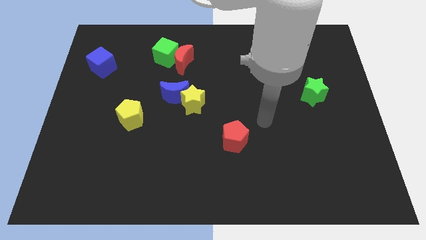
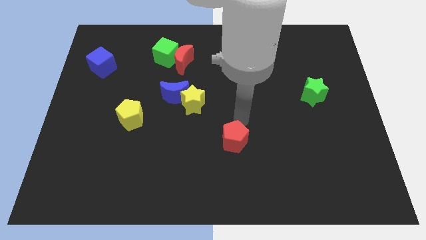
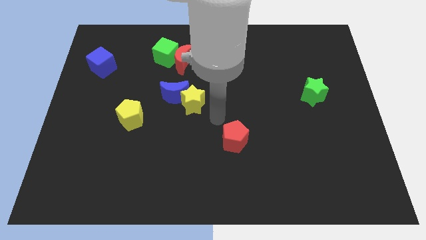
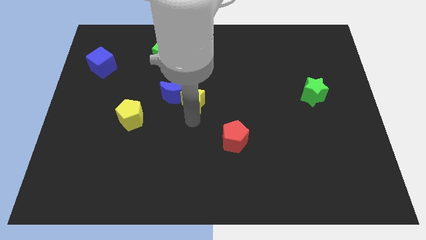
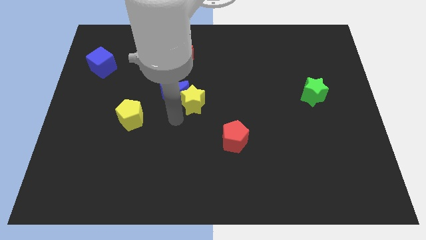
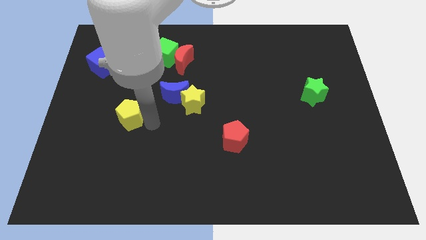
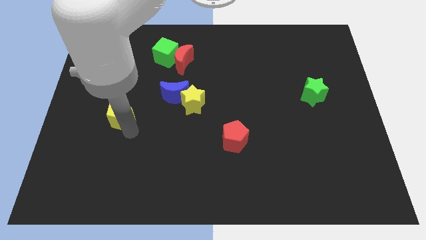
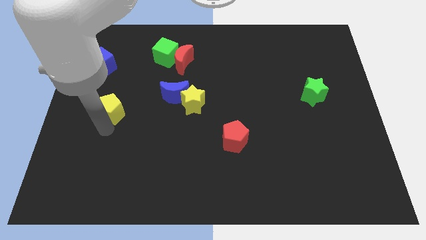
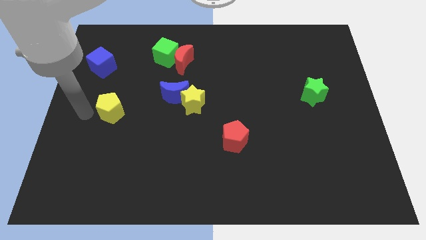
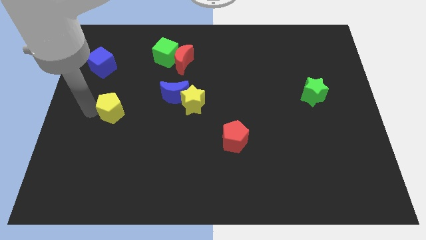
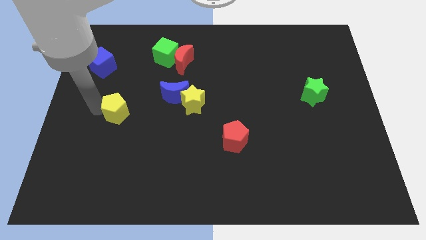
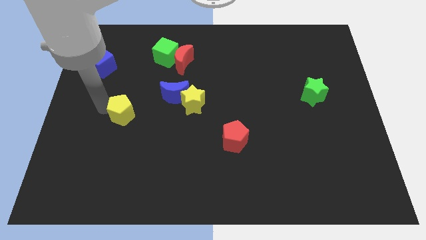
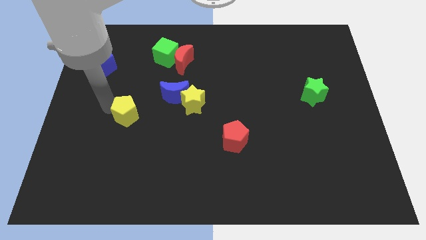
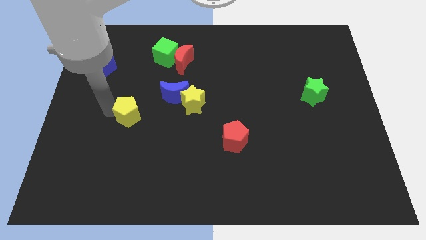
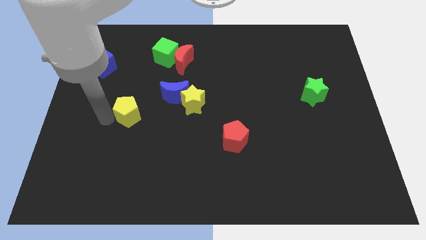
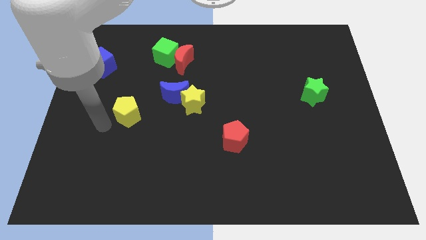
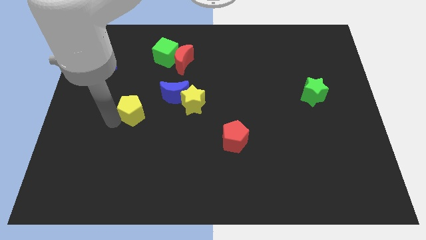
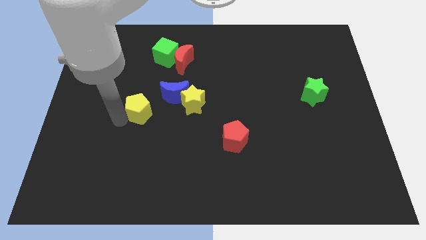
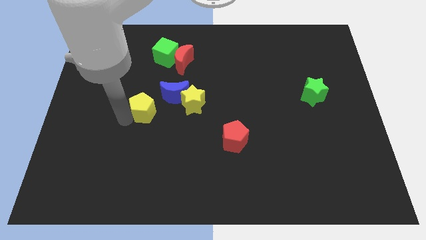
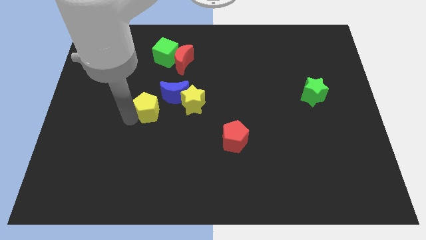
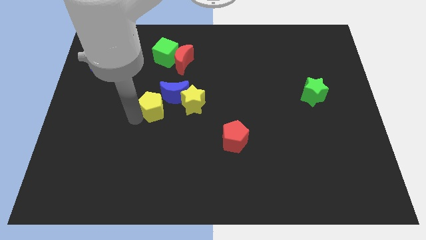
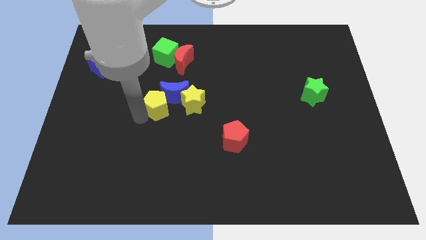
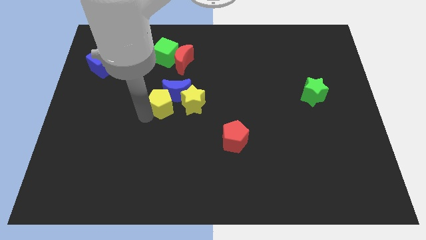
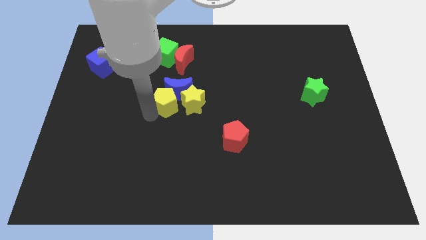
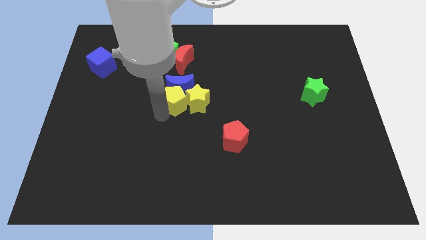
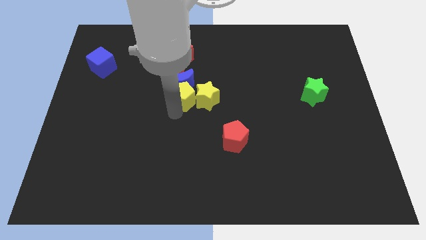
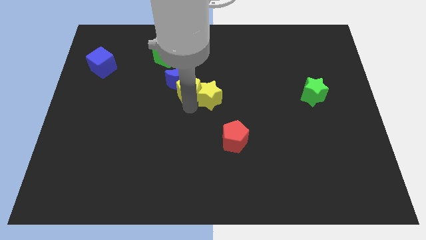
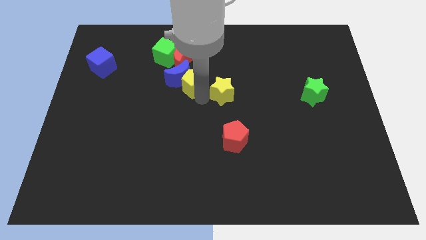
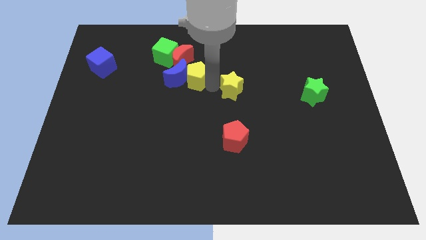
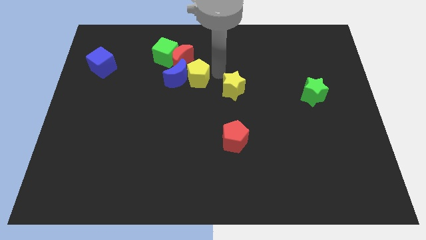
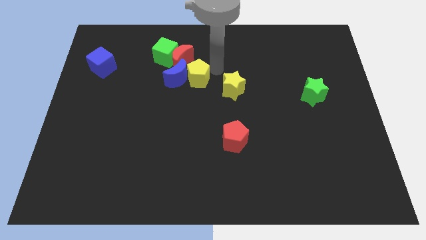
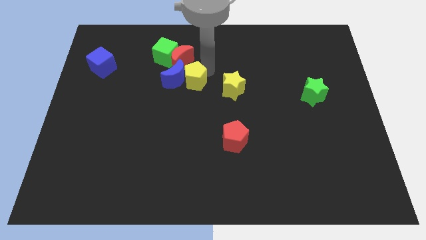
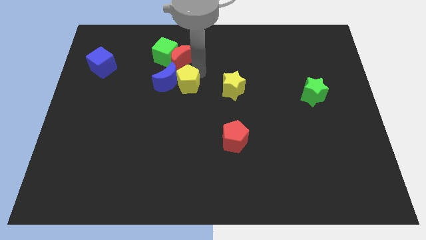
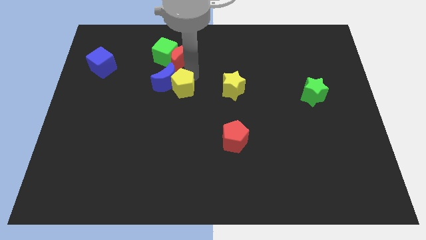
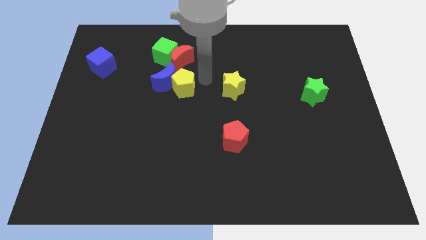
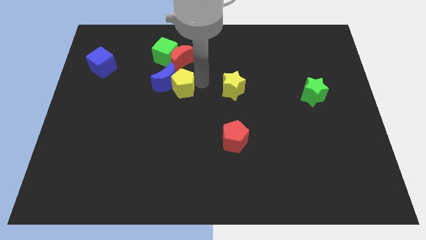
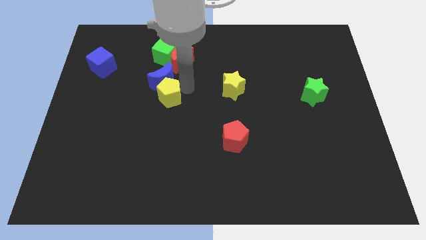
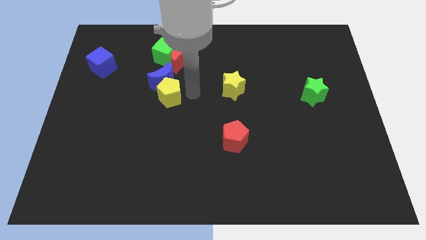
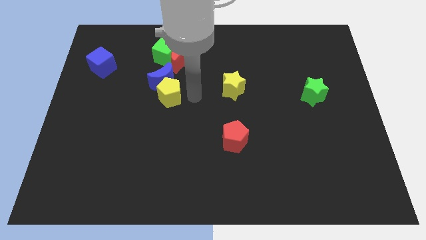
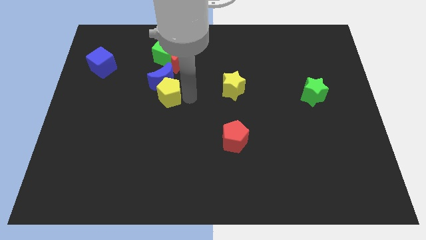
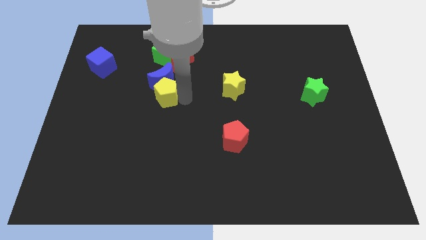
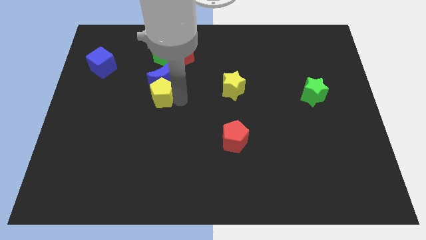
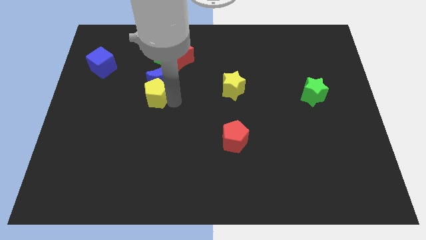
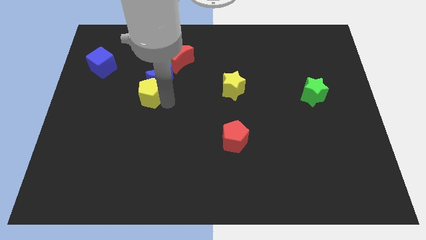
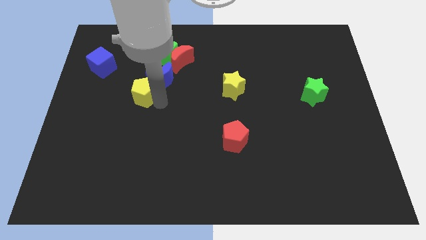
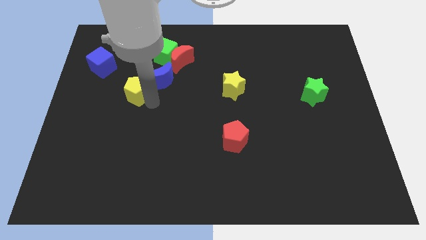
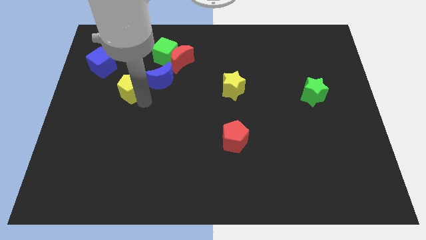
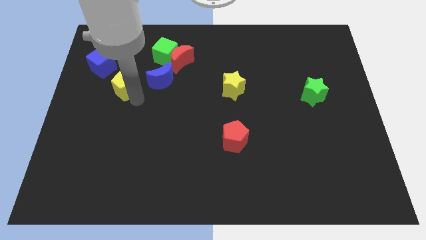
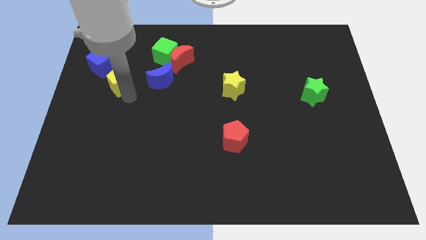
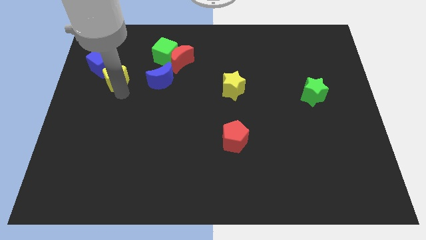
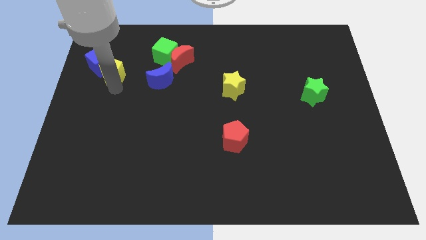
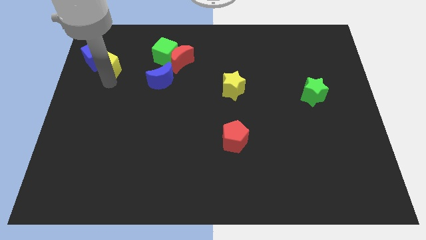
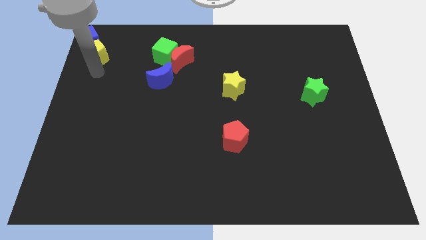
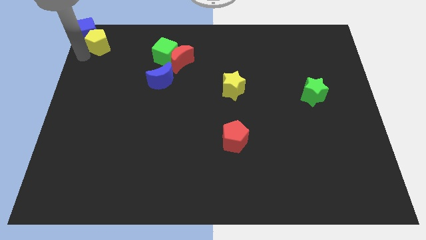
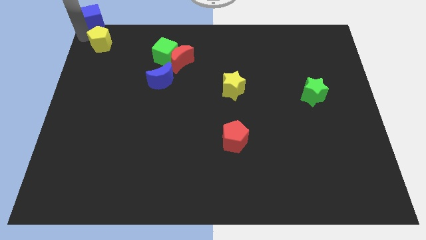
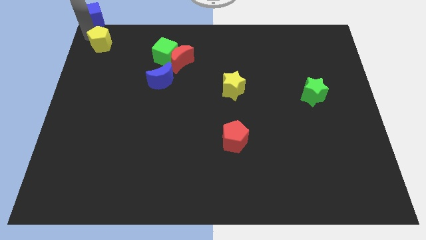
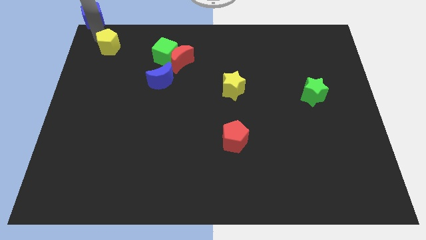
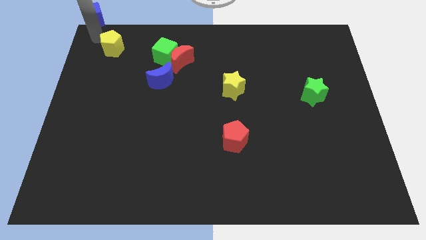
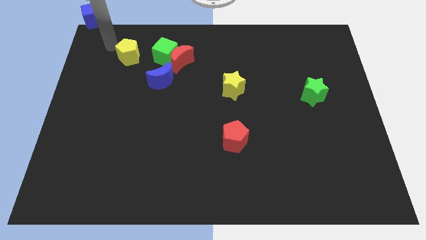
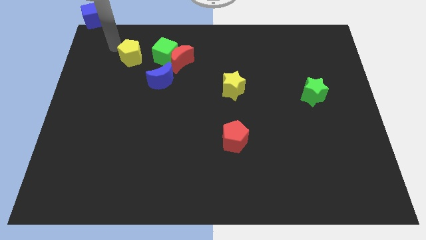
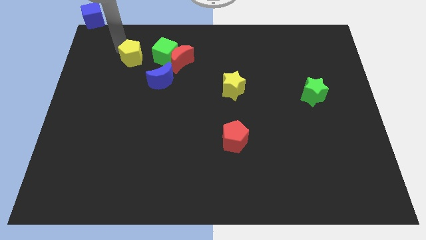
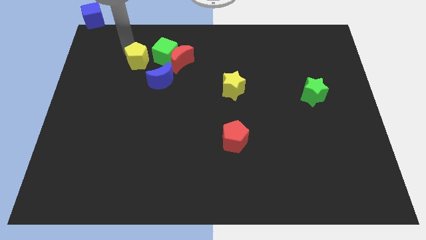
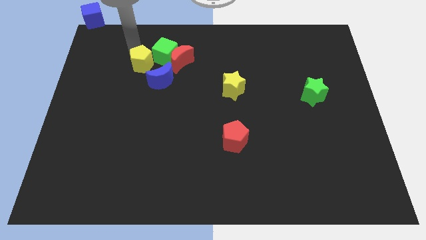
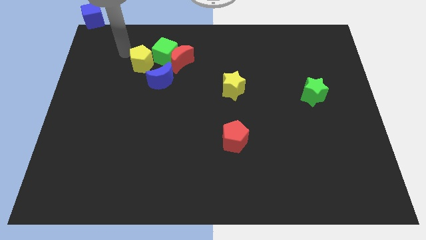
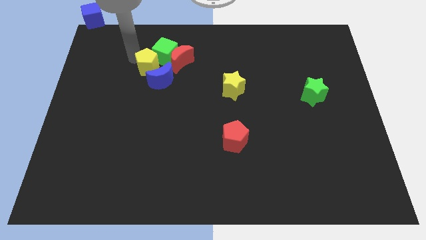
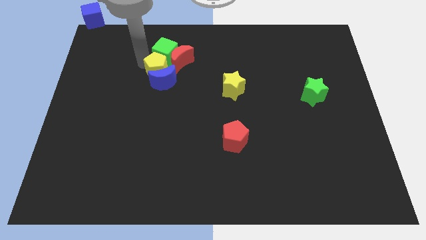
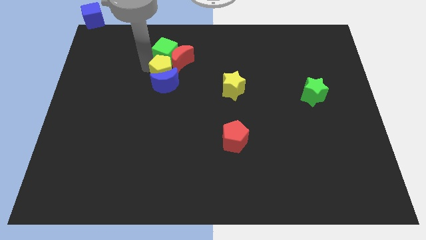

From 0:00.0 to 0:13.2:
put the yellow pentagon close to the red moon

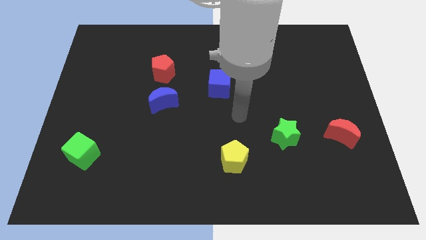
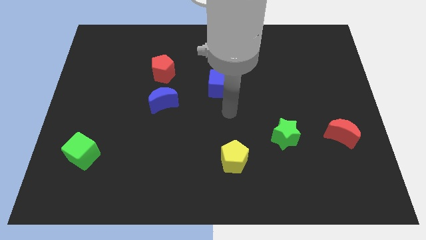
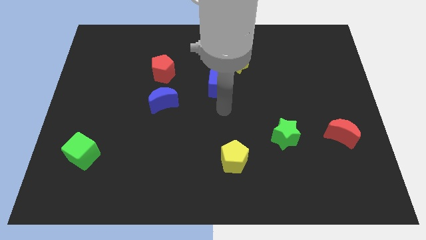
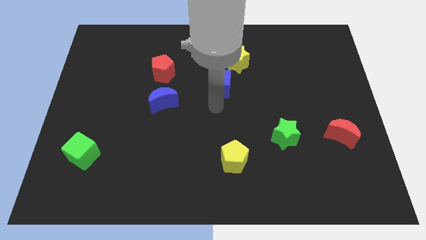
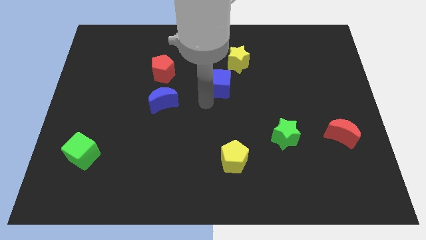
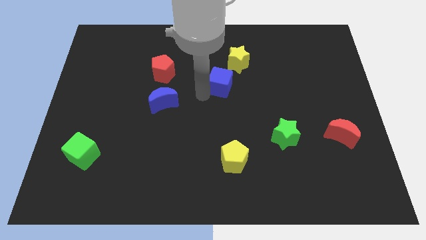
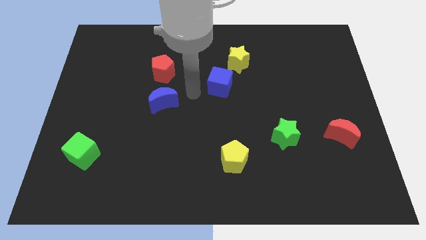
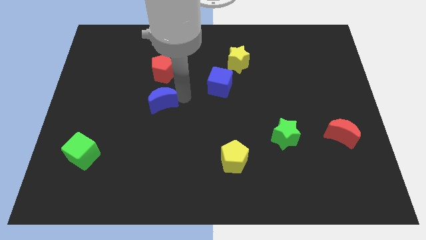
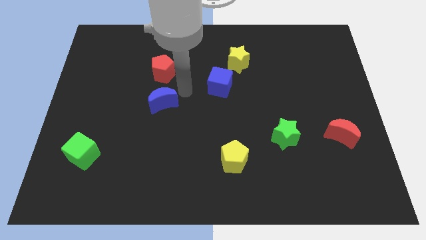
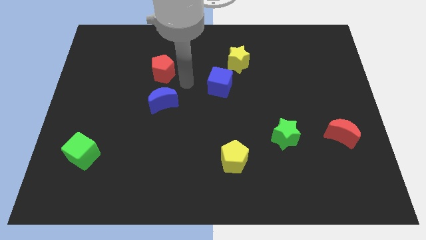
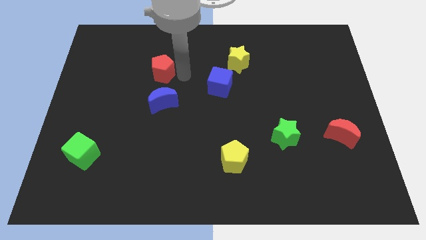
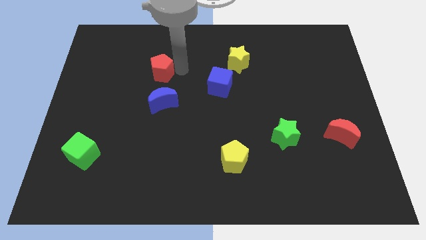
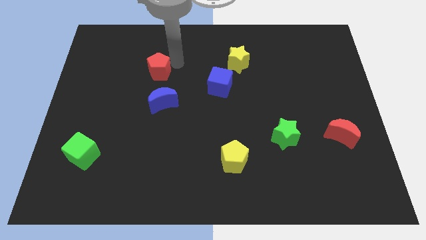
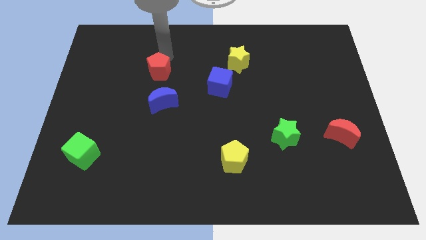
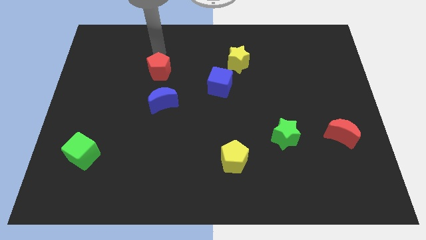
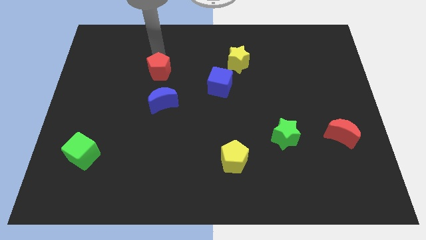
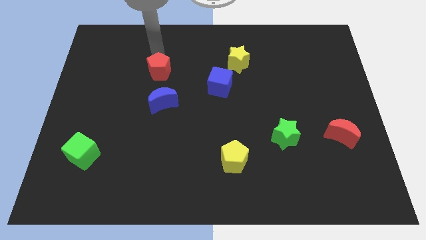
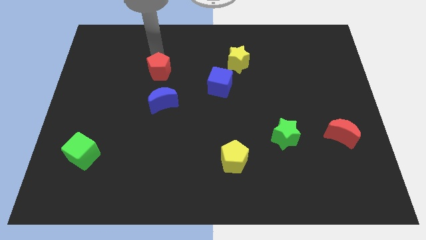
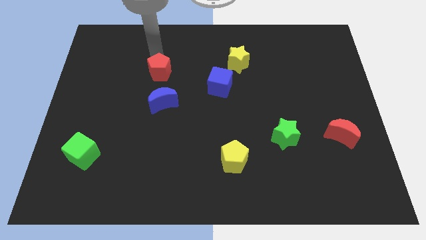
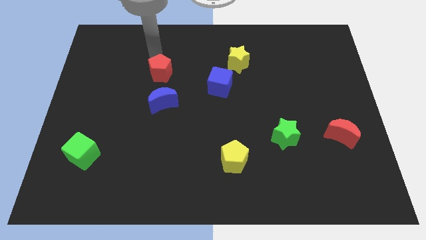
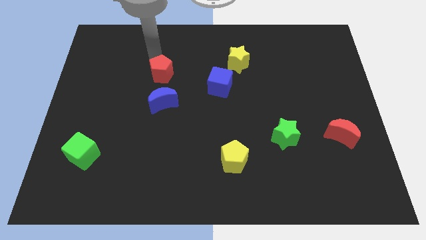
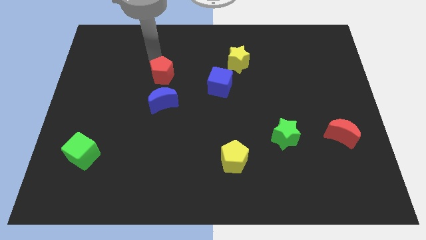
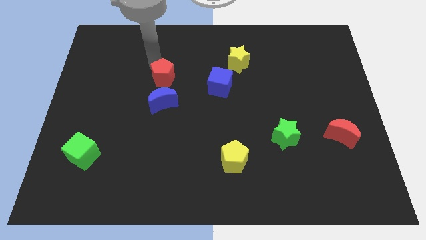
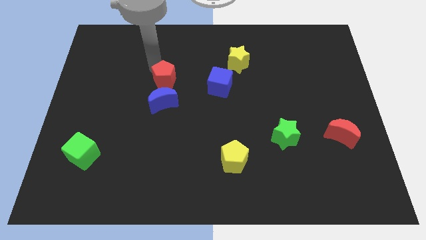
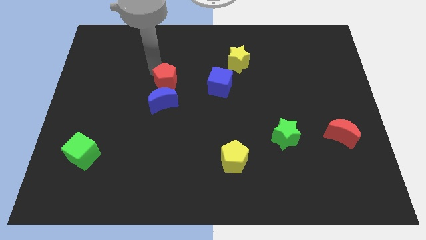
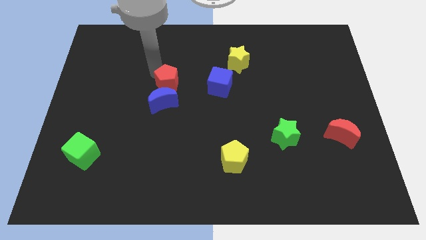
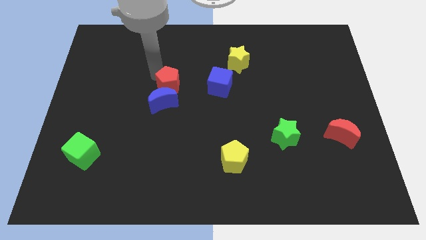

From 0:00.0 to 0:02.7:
push the red pentagon close to the blue moon
